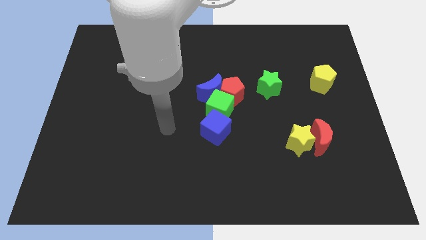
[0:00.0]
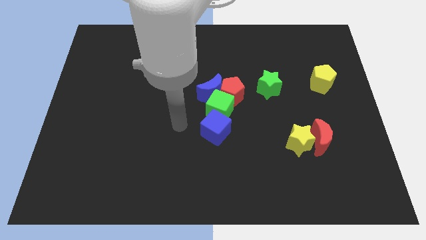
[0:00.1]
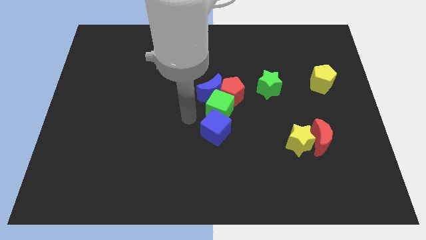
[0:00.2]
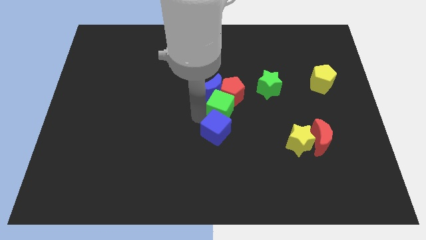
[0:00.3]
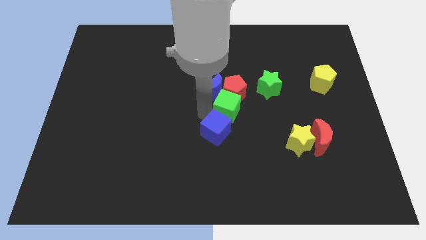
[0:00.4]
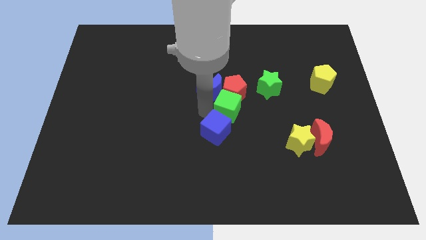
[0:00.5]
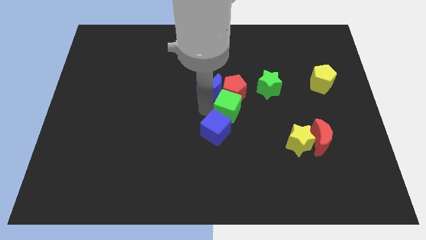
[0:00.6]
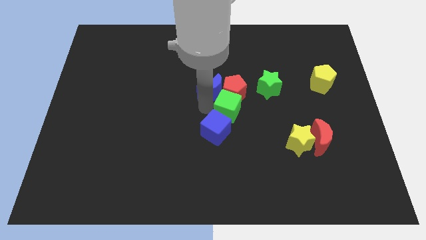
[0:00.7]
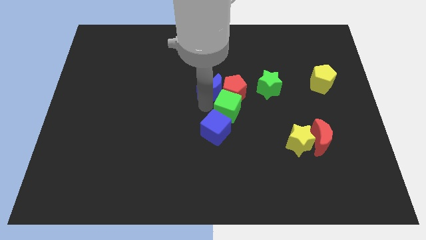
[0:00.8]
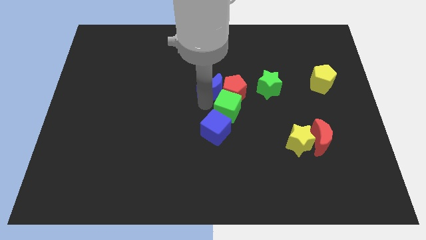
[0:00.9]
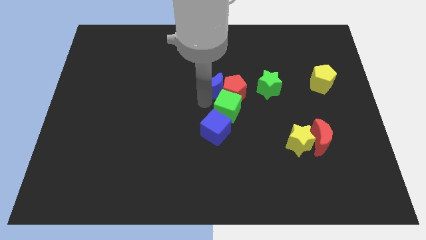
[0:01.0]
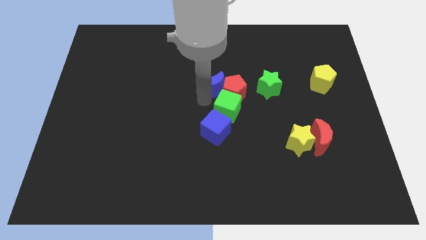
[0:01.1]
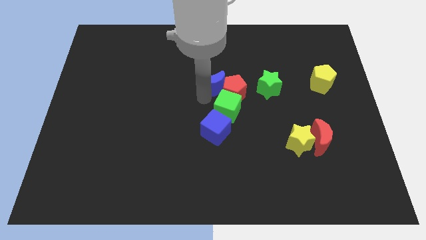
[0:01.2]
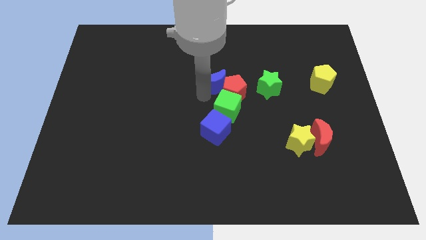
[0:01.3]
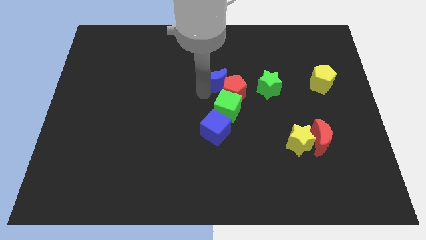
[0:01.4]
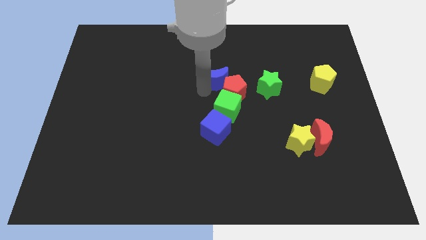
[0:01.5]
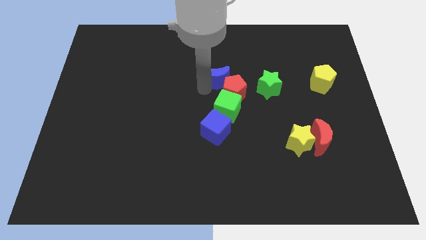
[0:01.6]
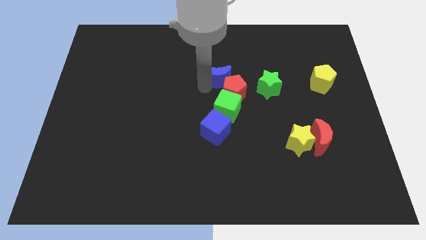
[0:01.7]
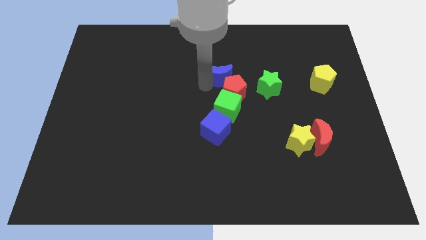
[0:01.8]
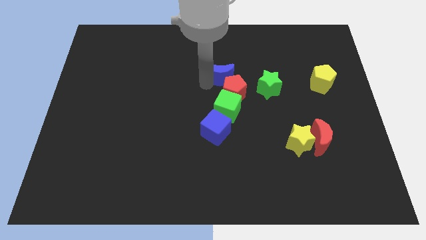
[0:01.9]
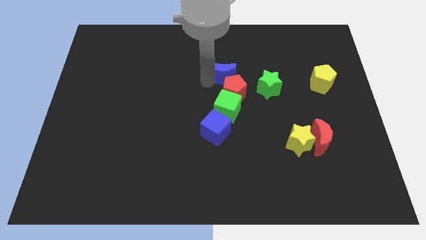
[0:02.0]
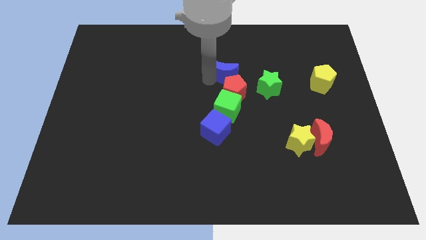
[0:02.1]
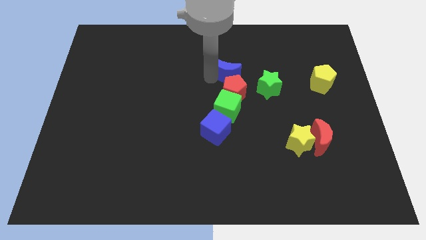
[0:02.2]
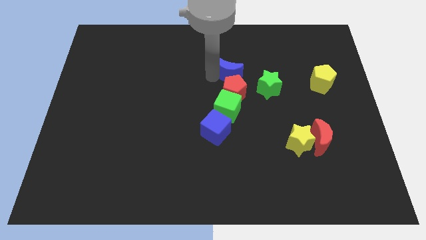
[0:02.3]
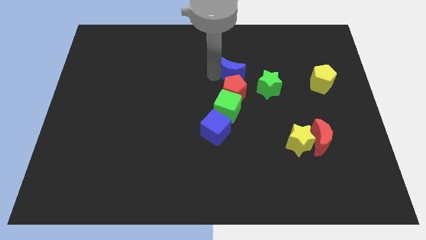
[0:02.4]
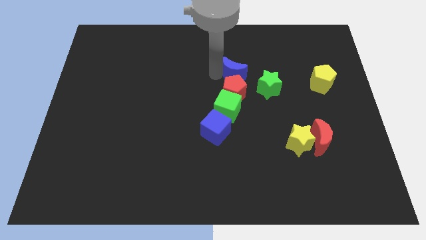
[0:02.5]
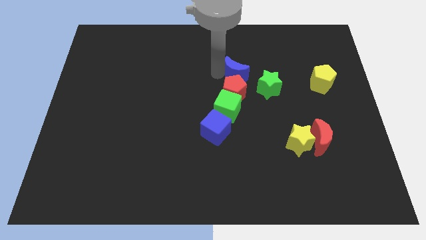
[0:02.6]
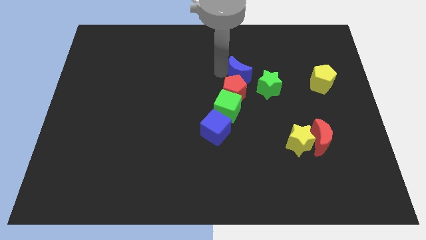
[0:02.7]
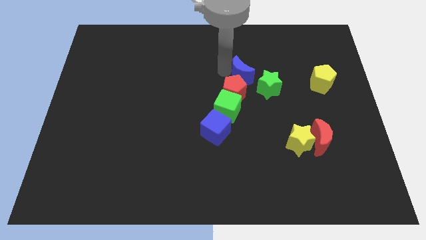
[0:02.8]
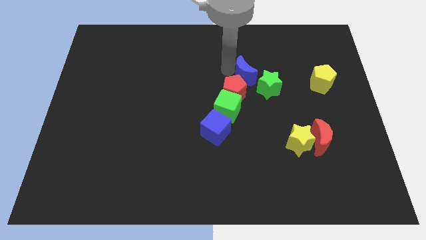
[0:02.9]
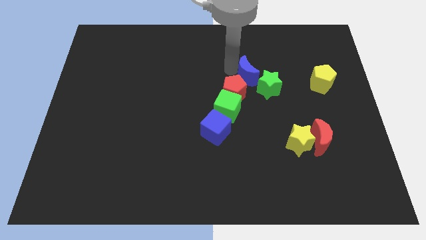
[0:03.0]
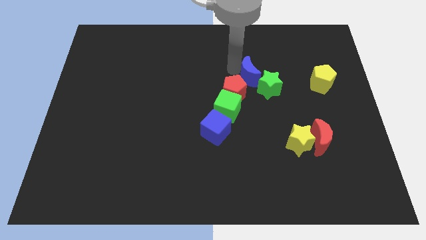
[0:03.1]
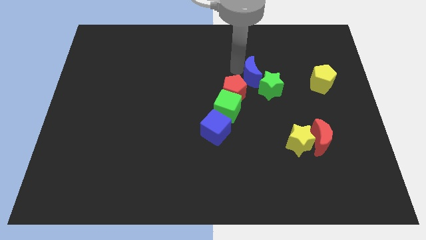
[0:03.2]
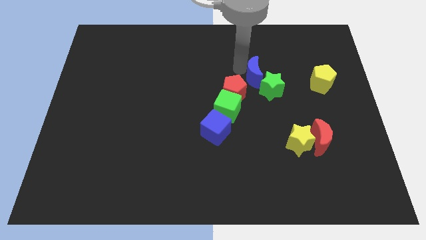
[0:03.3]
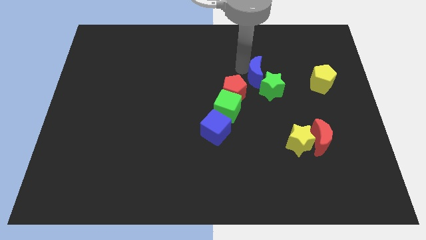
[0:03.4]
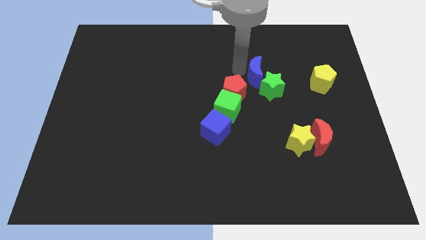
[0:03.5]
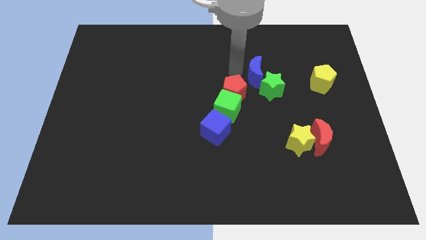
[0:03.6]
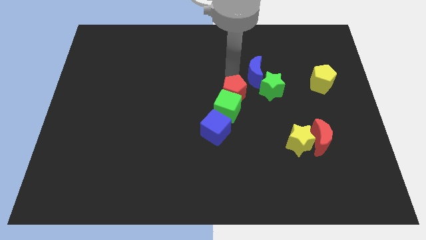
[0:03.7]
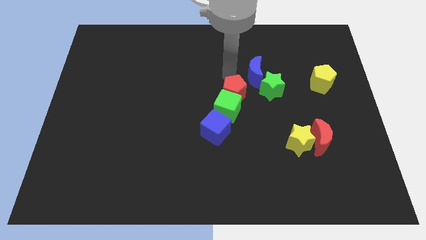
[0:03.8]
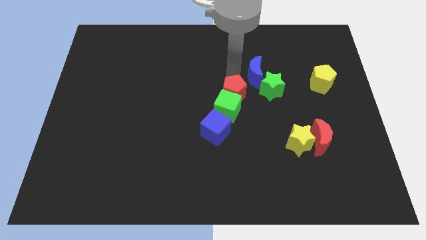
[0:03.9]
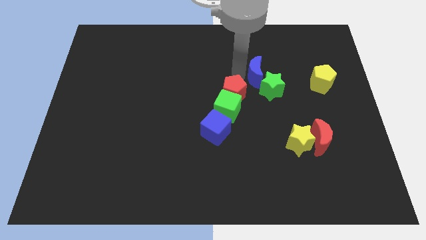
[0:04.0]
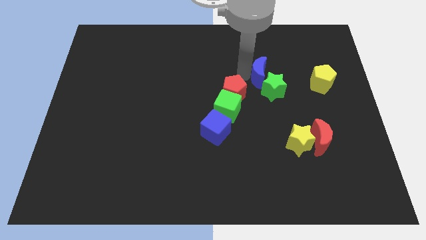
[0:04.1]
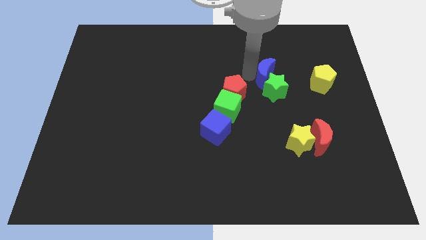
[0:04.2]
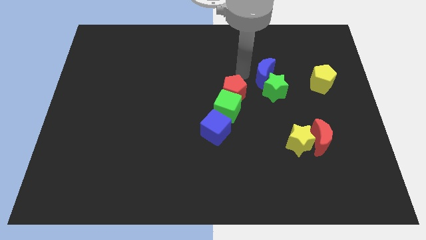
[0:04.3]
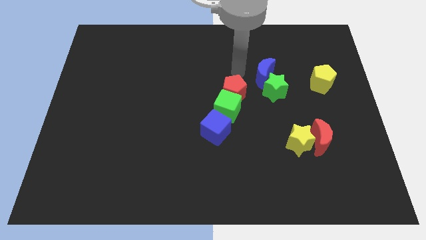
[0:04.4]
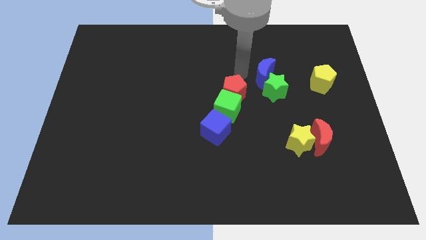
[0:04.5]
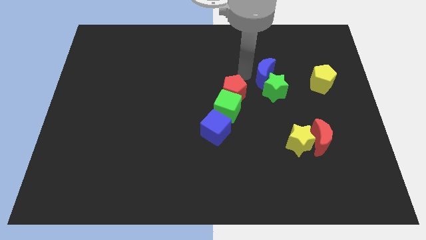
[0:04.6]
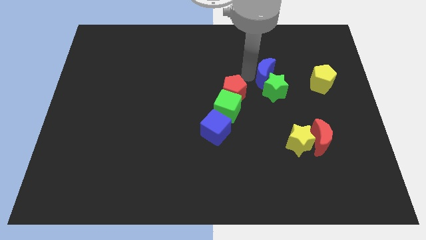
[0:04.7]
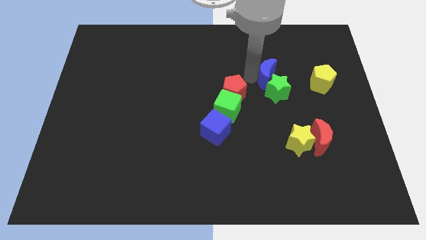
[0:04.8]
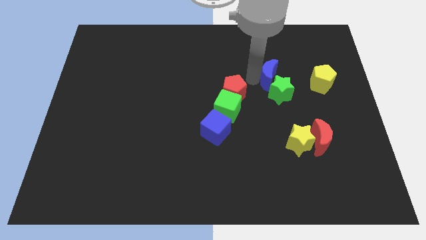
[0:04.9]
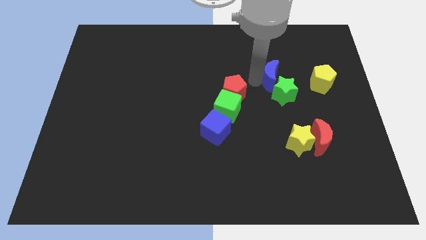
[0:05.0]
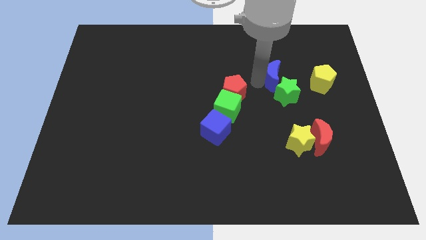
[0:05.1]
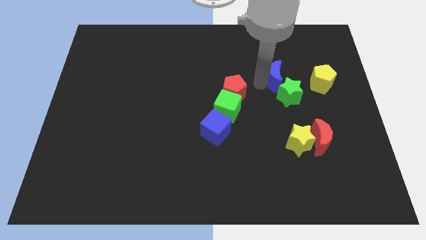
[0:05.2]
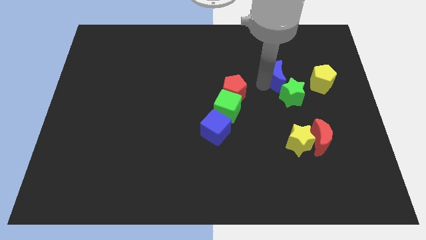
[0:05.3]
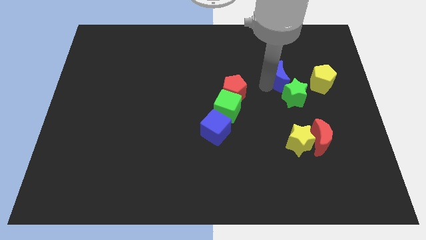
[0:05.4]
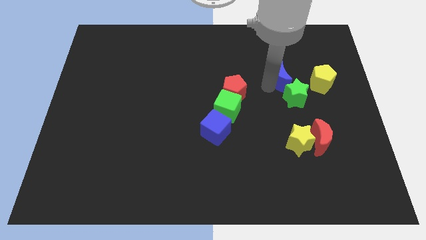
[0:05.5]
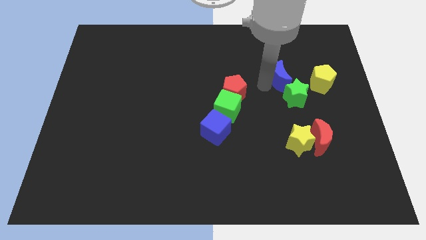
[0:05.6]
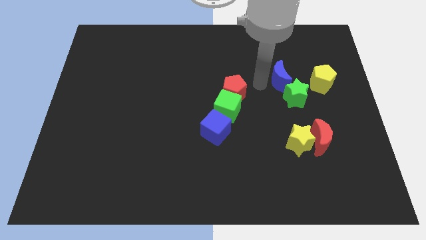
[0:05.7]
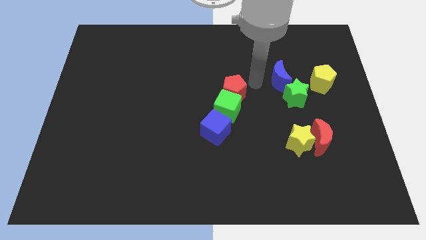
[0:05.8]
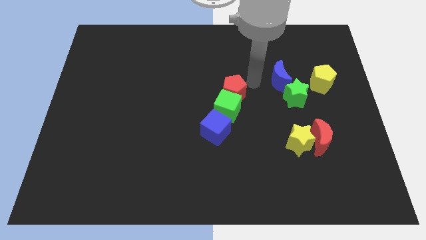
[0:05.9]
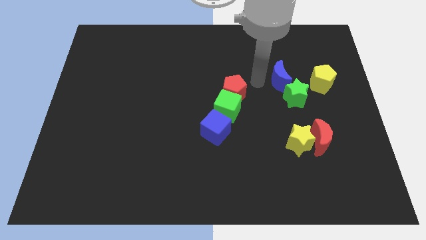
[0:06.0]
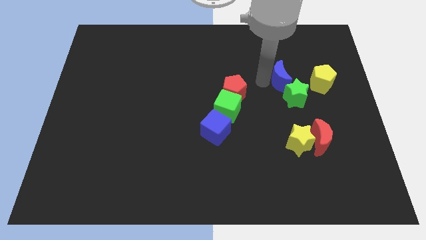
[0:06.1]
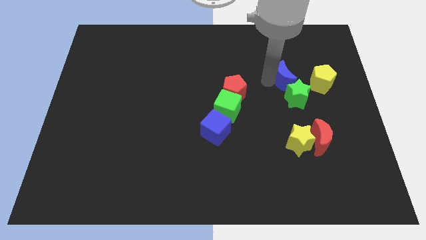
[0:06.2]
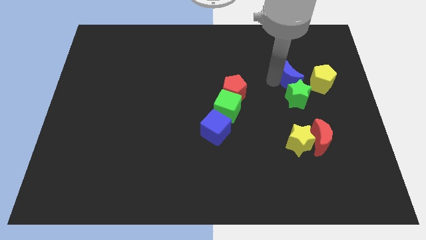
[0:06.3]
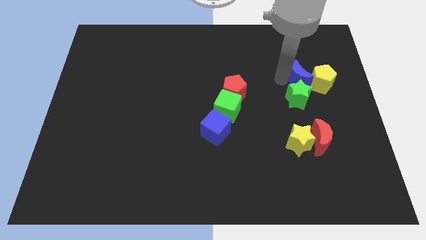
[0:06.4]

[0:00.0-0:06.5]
push the blue moon towards the yellow pentagon
